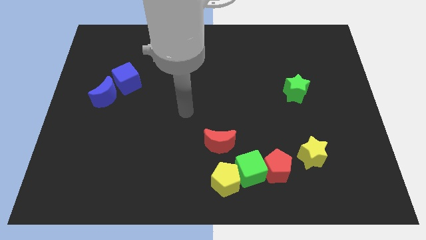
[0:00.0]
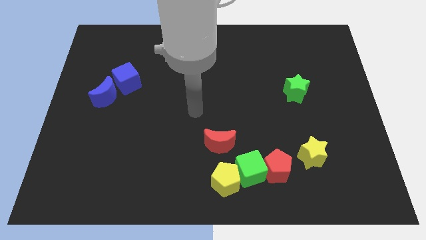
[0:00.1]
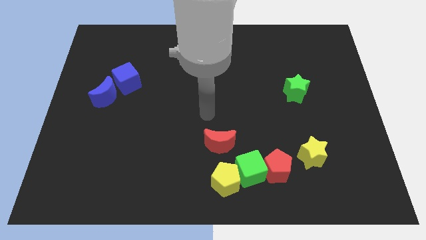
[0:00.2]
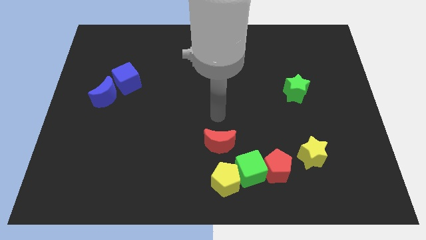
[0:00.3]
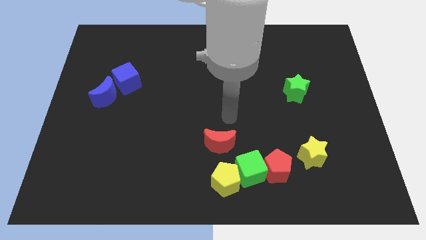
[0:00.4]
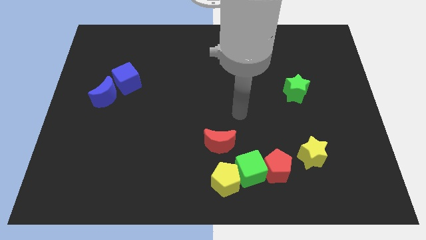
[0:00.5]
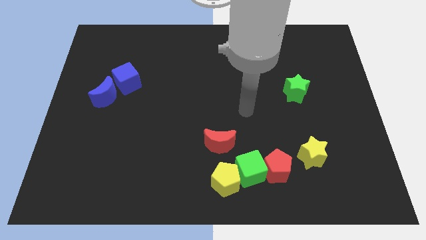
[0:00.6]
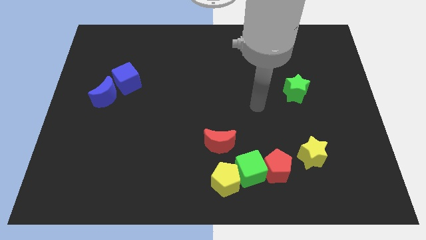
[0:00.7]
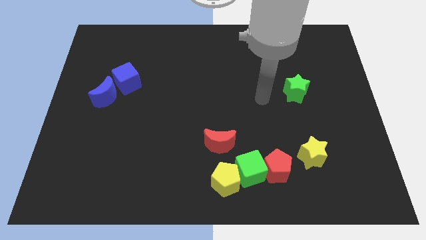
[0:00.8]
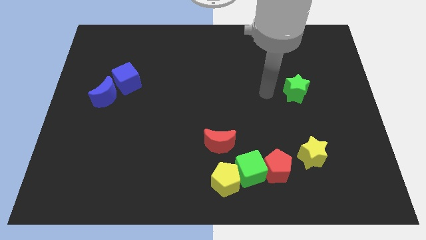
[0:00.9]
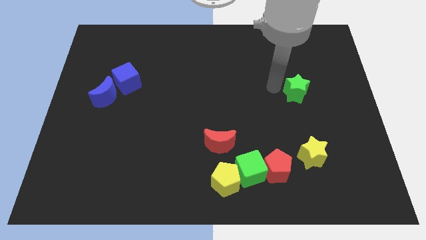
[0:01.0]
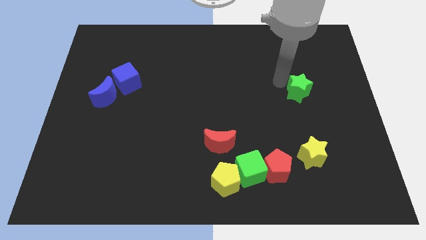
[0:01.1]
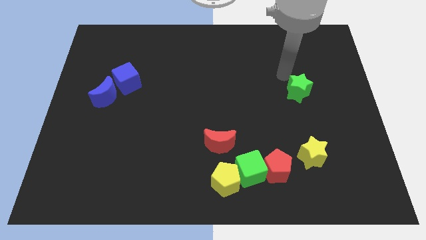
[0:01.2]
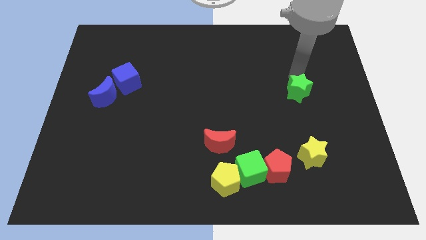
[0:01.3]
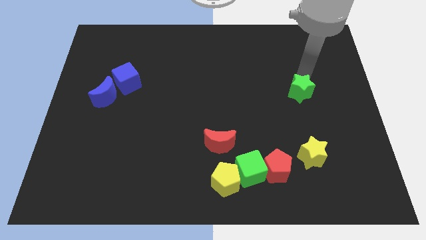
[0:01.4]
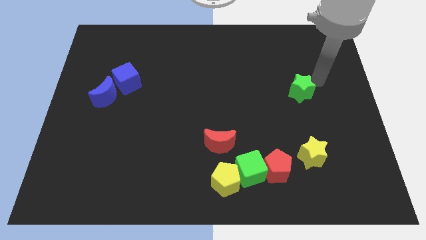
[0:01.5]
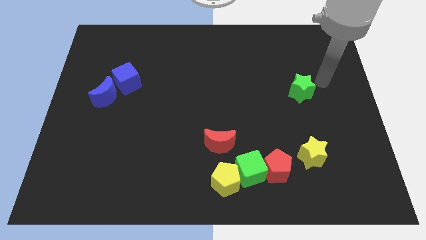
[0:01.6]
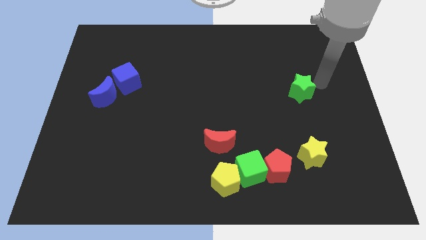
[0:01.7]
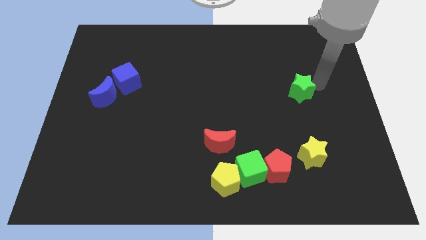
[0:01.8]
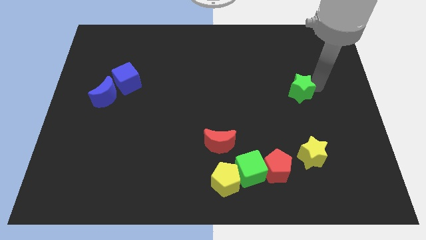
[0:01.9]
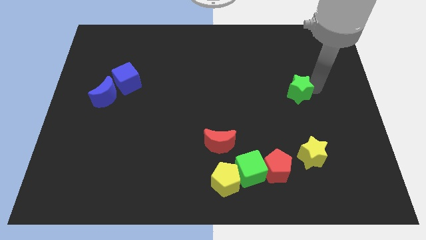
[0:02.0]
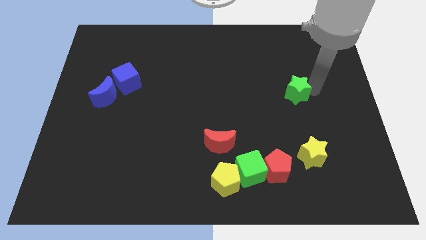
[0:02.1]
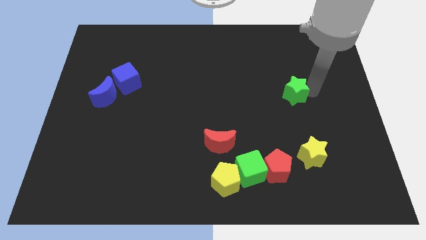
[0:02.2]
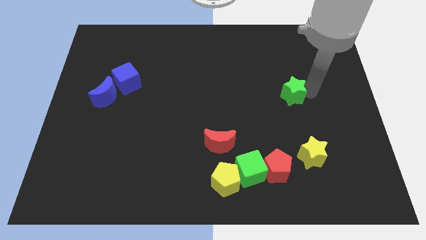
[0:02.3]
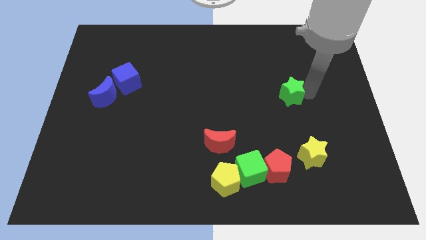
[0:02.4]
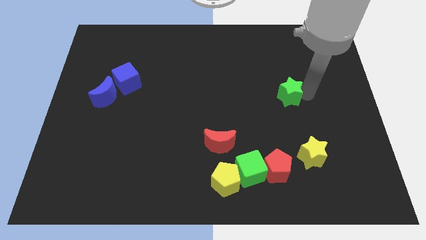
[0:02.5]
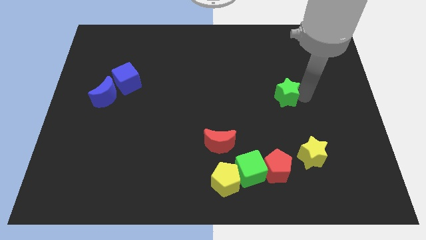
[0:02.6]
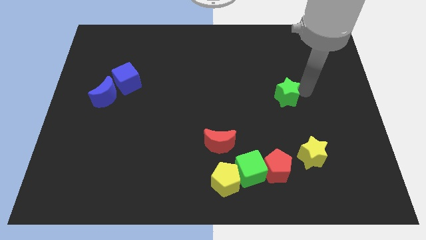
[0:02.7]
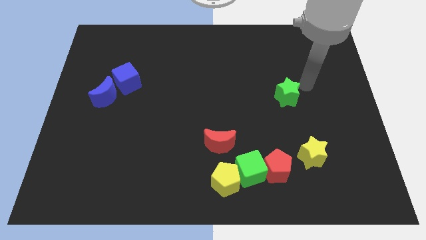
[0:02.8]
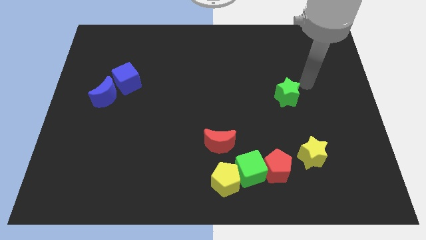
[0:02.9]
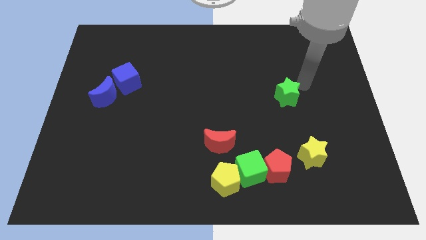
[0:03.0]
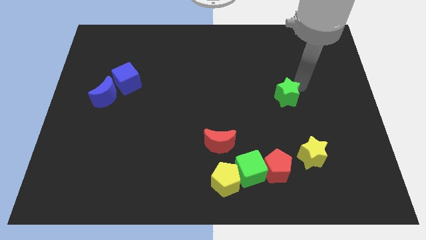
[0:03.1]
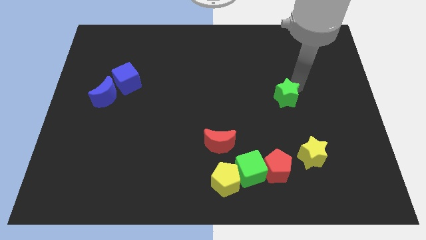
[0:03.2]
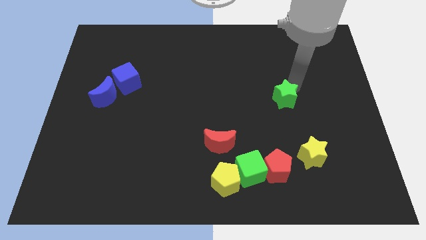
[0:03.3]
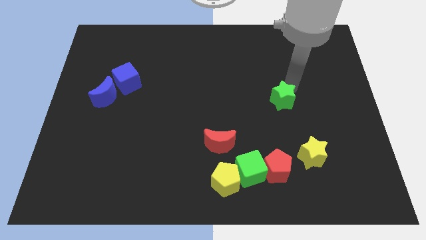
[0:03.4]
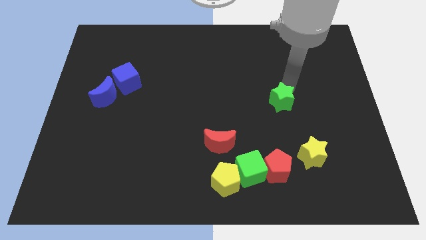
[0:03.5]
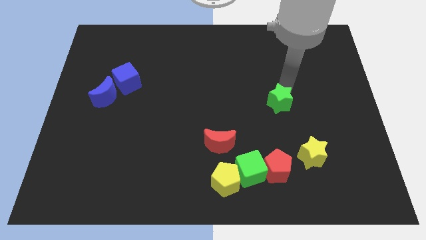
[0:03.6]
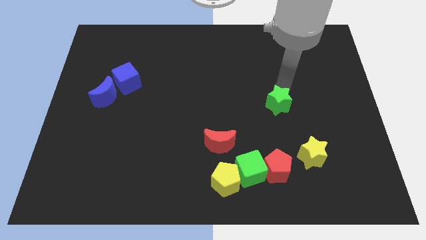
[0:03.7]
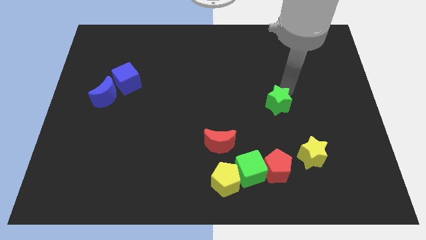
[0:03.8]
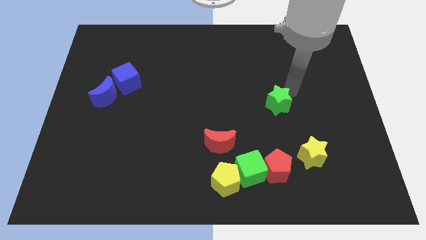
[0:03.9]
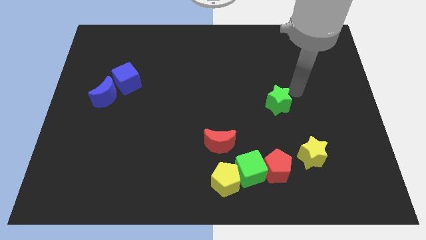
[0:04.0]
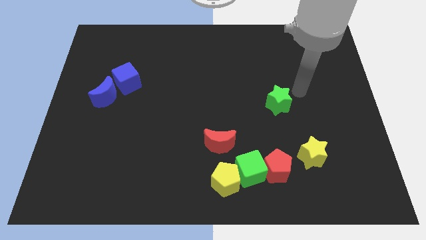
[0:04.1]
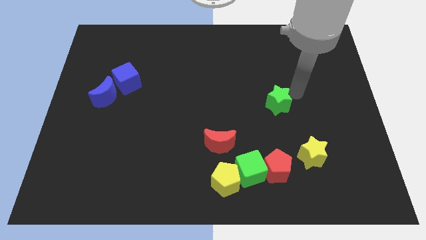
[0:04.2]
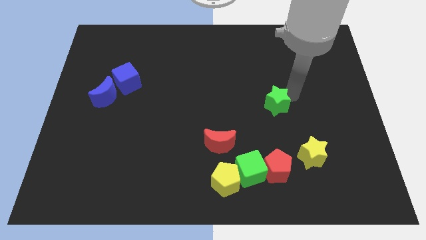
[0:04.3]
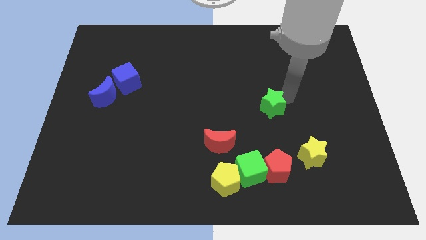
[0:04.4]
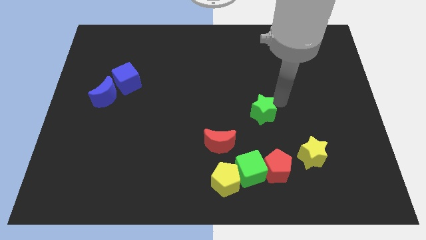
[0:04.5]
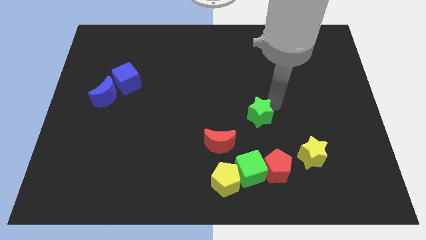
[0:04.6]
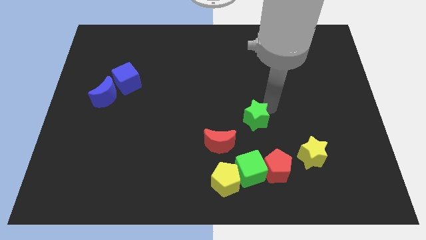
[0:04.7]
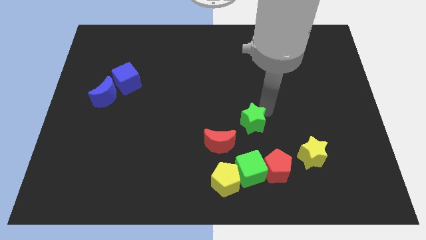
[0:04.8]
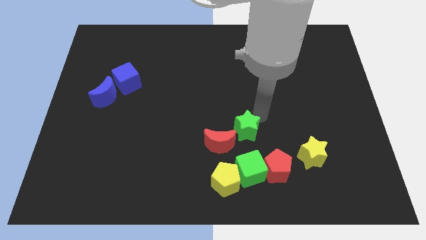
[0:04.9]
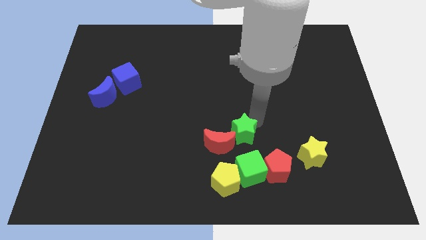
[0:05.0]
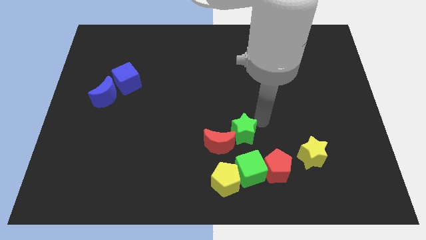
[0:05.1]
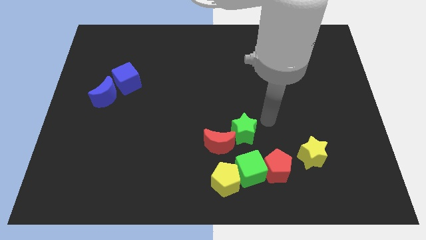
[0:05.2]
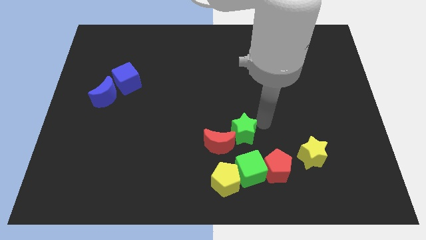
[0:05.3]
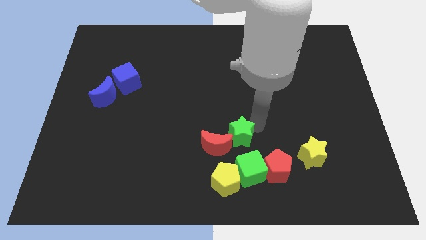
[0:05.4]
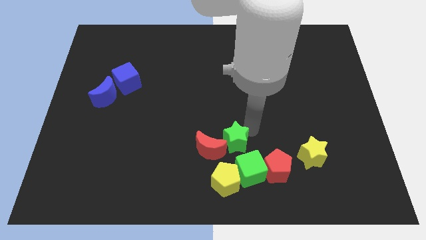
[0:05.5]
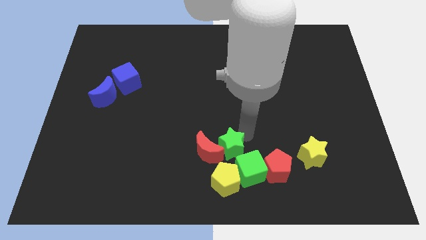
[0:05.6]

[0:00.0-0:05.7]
slide the green star towards the red moon

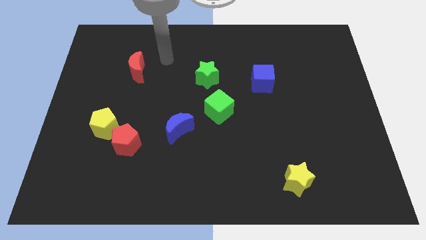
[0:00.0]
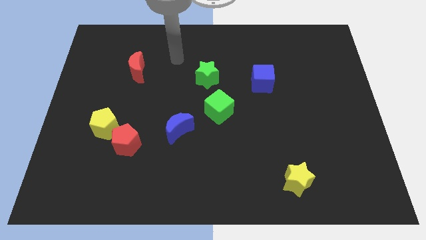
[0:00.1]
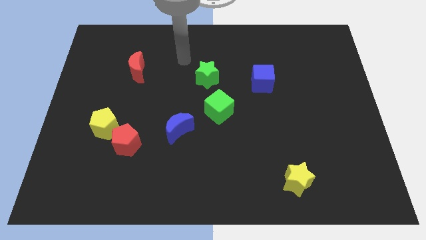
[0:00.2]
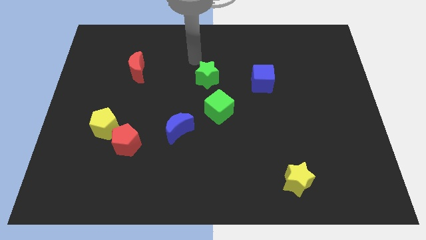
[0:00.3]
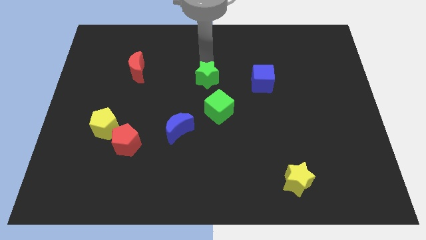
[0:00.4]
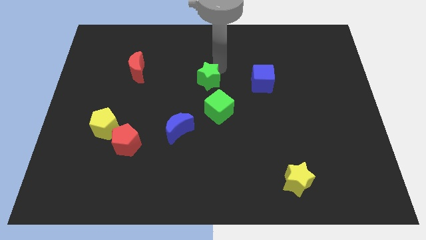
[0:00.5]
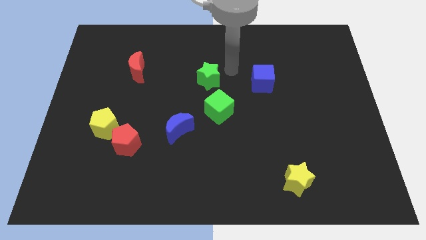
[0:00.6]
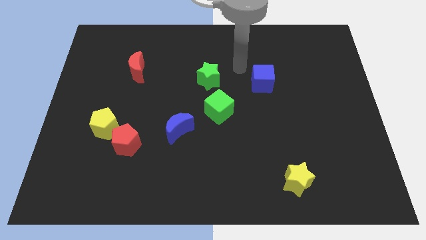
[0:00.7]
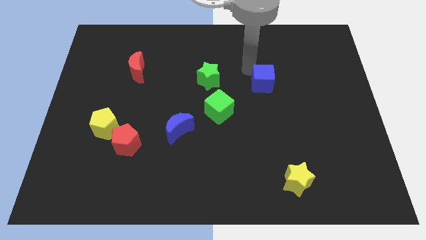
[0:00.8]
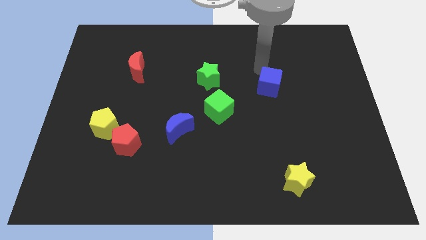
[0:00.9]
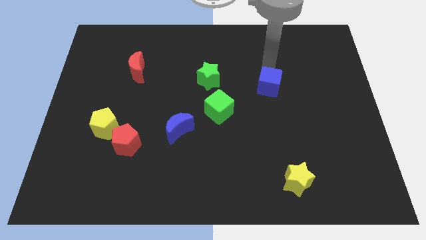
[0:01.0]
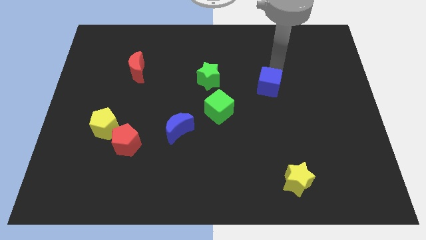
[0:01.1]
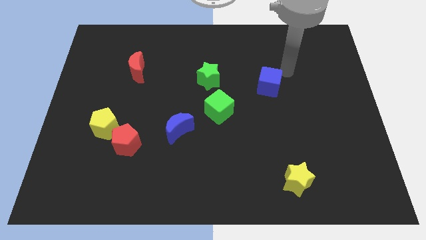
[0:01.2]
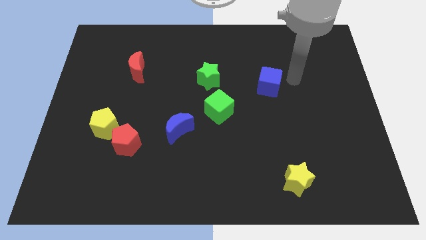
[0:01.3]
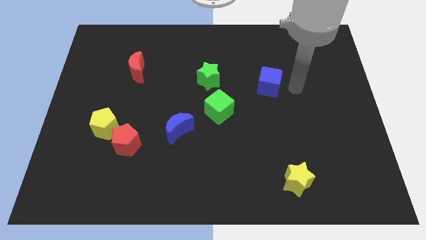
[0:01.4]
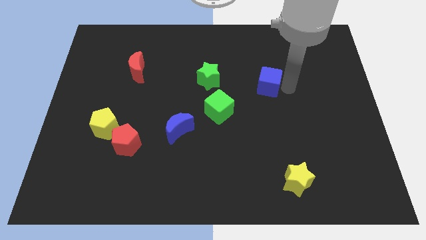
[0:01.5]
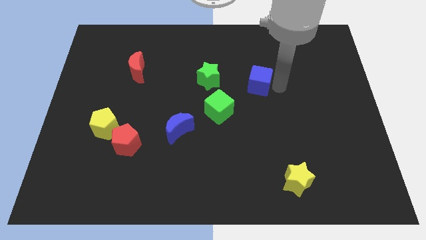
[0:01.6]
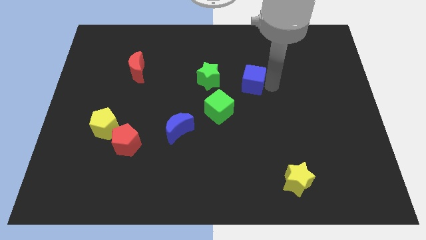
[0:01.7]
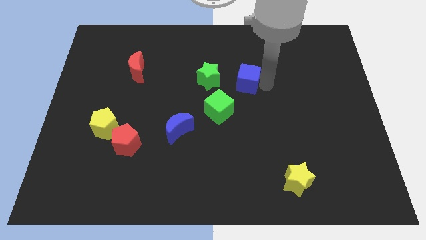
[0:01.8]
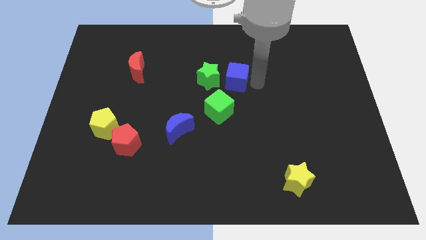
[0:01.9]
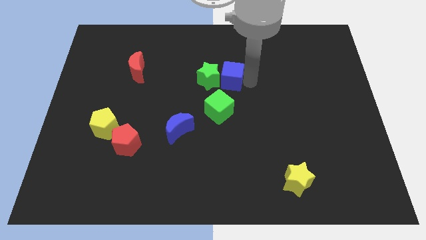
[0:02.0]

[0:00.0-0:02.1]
put the blue cube to the green star
